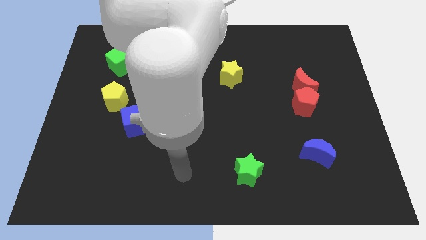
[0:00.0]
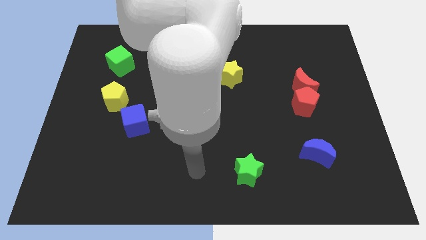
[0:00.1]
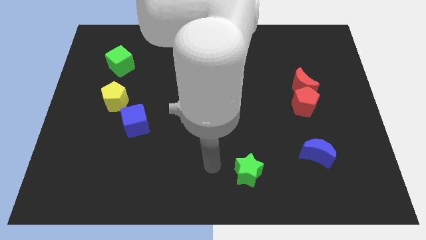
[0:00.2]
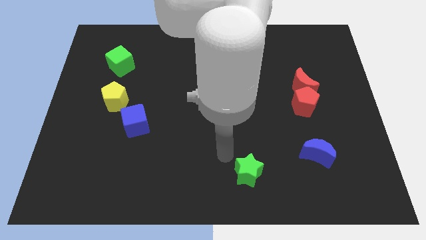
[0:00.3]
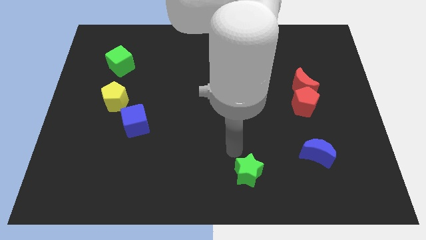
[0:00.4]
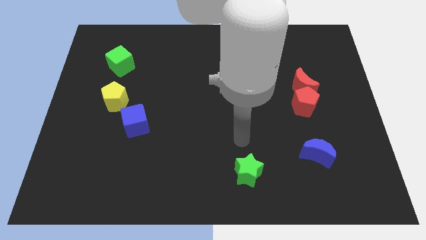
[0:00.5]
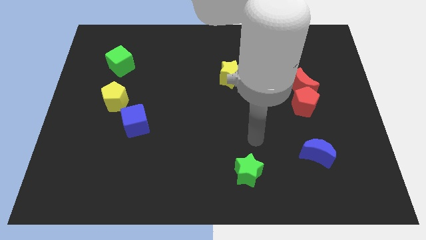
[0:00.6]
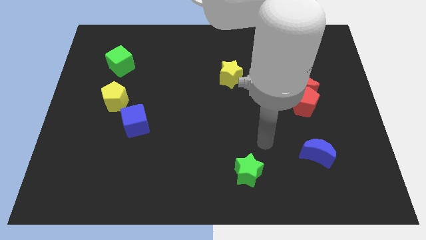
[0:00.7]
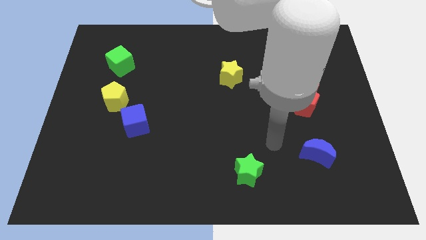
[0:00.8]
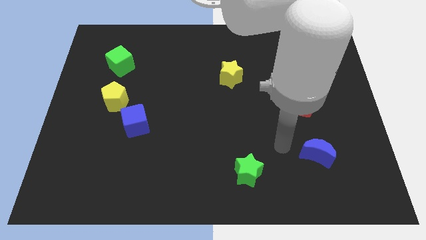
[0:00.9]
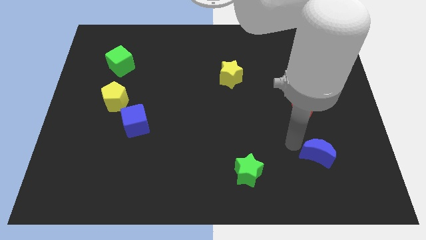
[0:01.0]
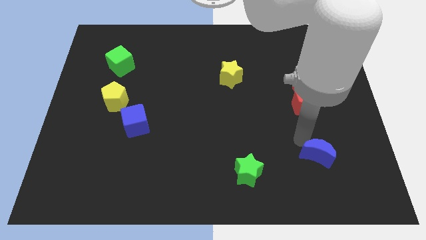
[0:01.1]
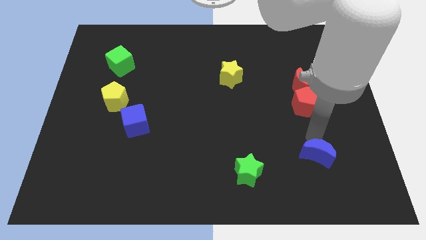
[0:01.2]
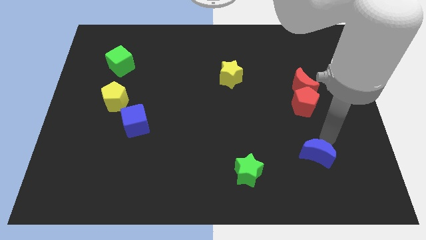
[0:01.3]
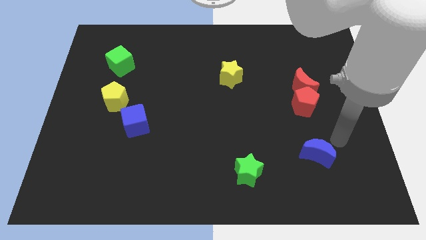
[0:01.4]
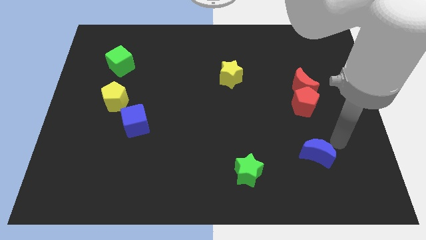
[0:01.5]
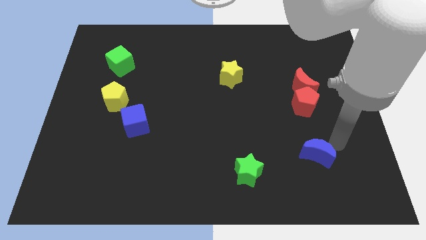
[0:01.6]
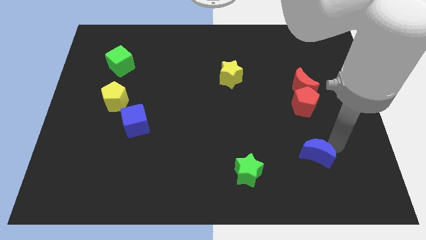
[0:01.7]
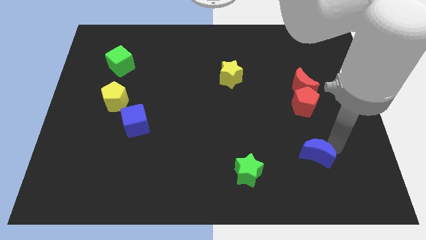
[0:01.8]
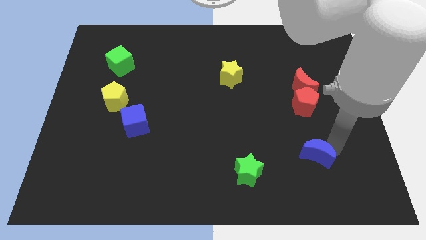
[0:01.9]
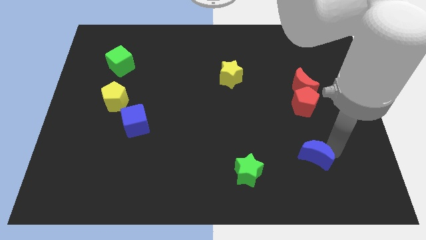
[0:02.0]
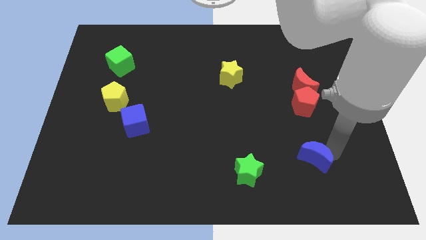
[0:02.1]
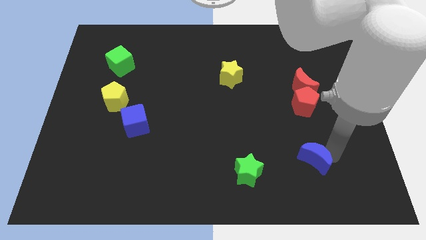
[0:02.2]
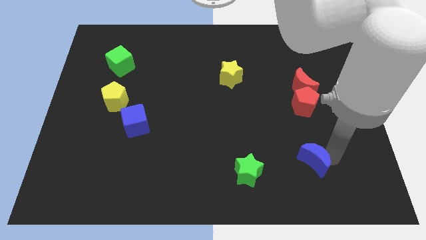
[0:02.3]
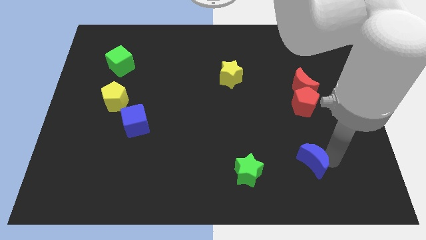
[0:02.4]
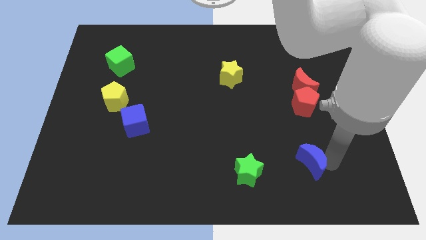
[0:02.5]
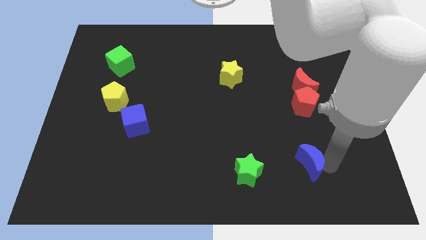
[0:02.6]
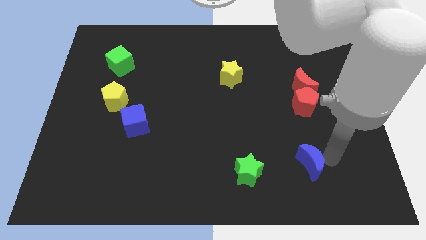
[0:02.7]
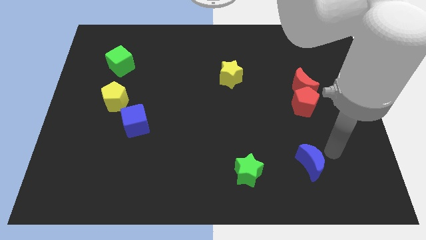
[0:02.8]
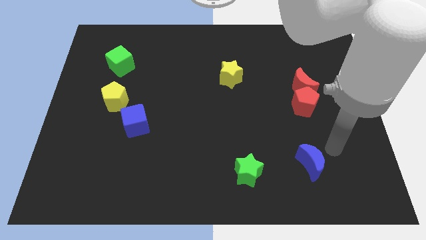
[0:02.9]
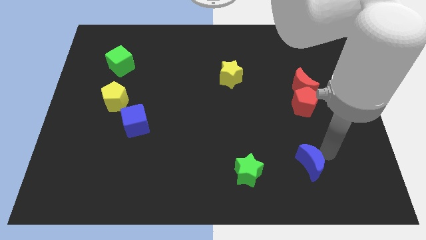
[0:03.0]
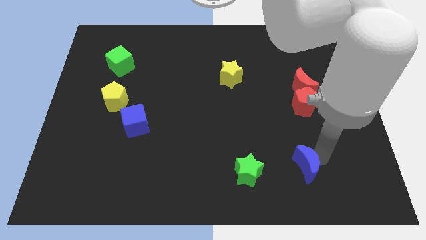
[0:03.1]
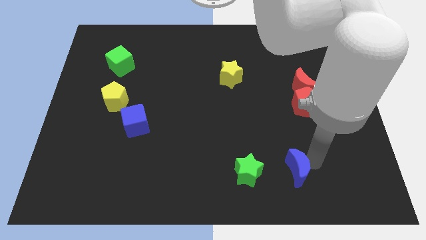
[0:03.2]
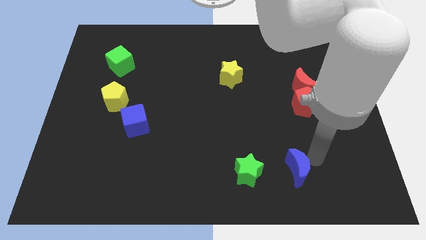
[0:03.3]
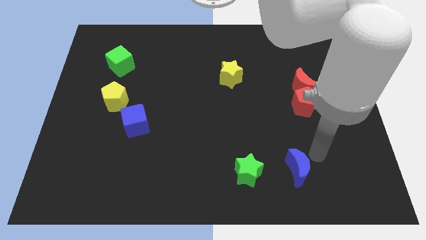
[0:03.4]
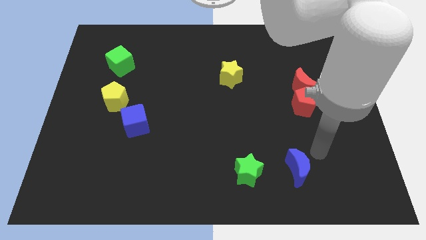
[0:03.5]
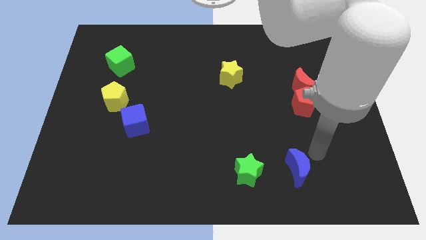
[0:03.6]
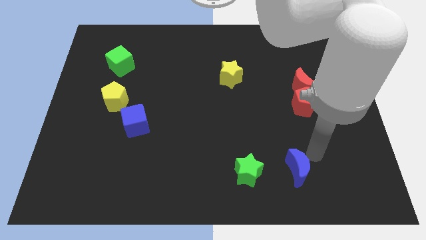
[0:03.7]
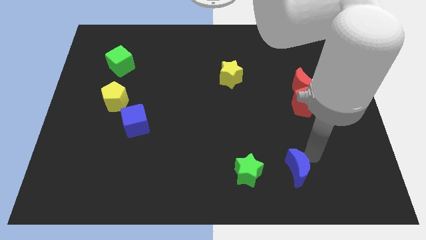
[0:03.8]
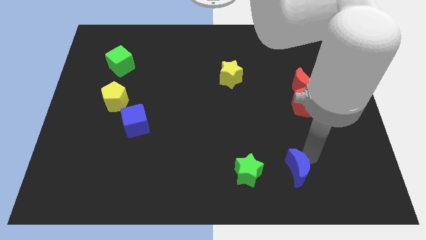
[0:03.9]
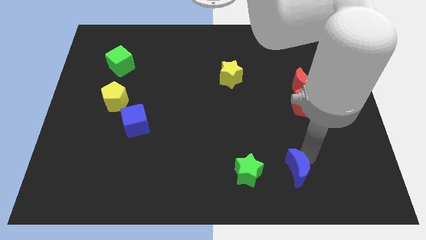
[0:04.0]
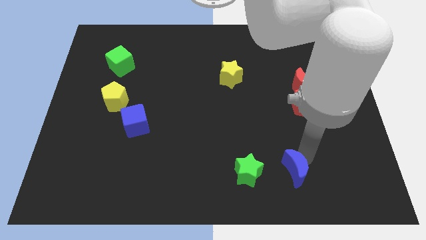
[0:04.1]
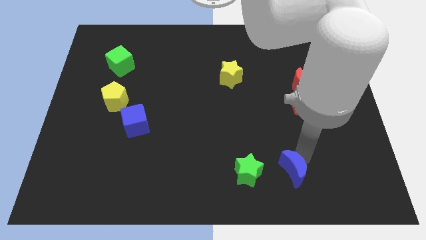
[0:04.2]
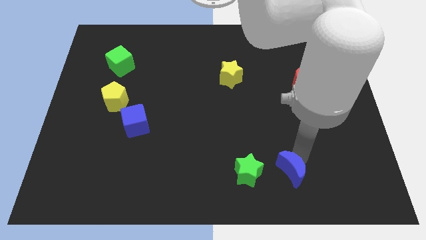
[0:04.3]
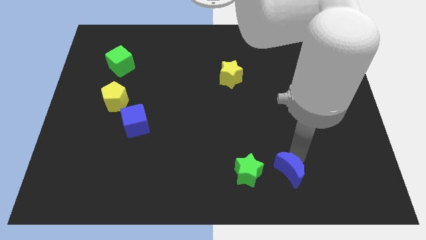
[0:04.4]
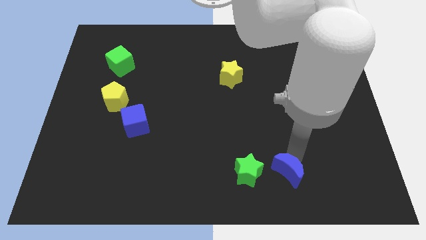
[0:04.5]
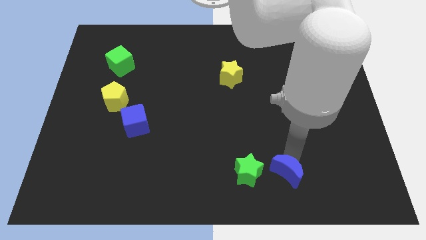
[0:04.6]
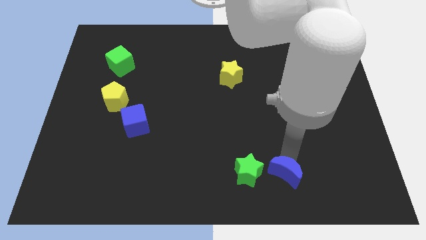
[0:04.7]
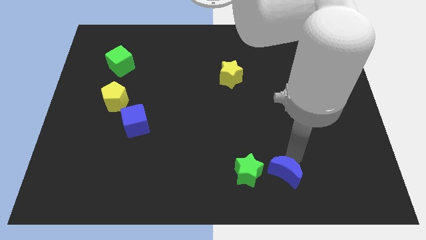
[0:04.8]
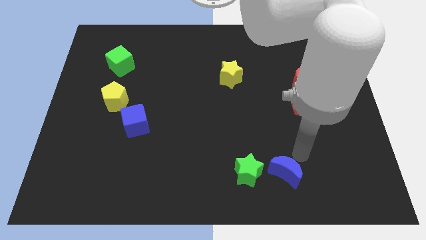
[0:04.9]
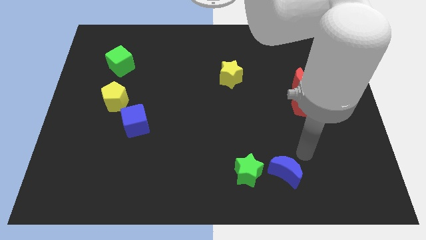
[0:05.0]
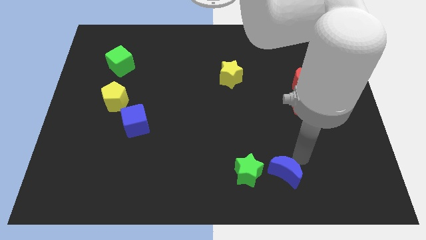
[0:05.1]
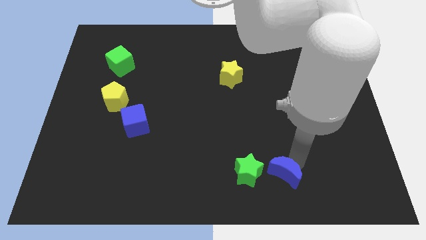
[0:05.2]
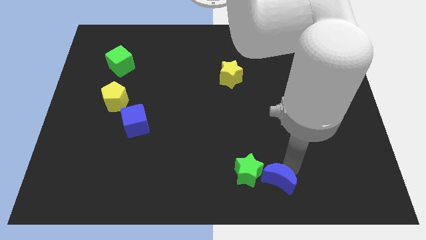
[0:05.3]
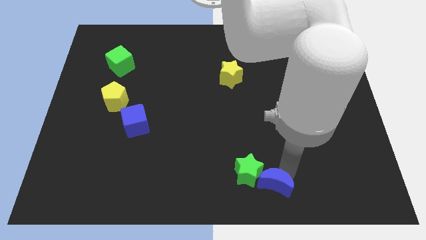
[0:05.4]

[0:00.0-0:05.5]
slide the blue moon to the bottom

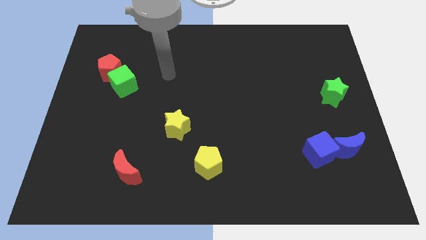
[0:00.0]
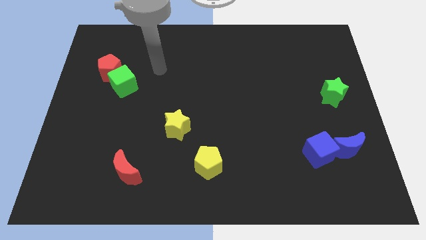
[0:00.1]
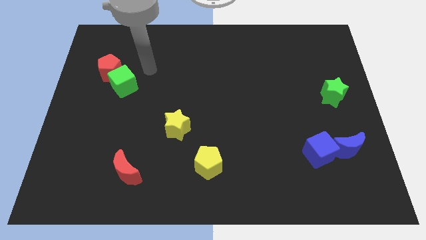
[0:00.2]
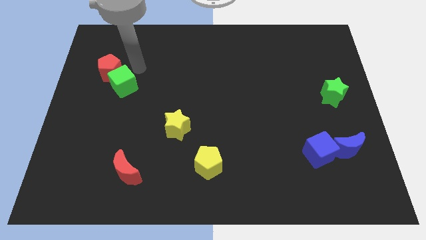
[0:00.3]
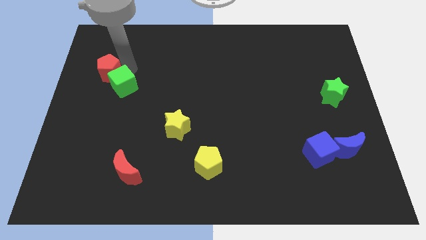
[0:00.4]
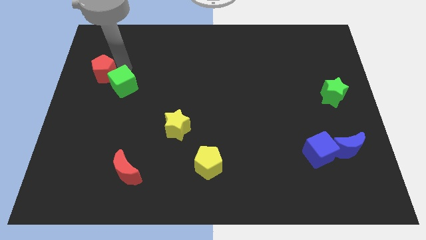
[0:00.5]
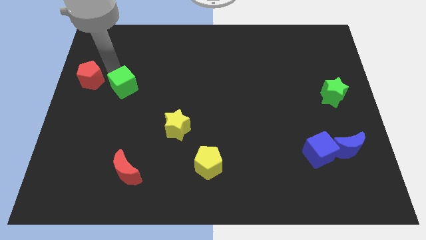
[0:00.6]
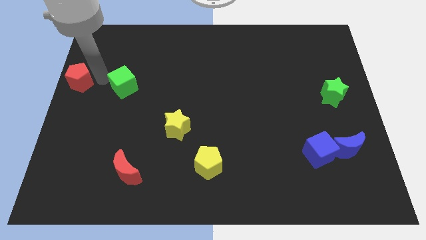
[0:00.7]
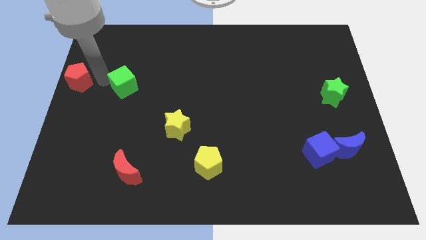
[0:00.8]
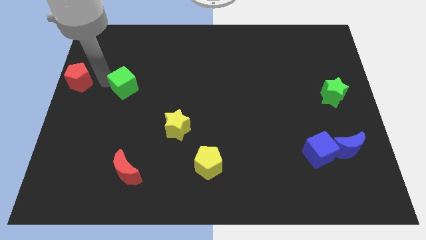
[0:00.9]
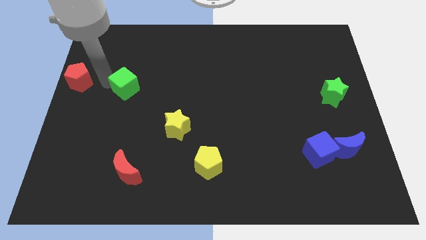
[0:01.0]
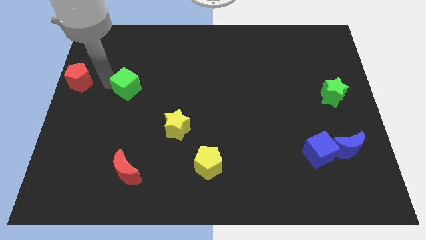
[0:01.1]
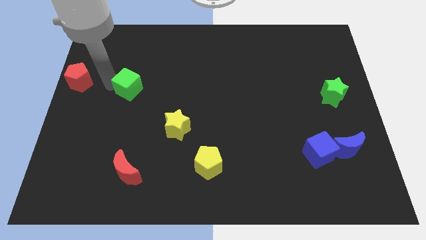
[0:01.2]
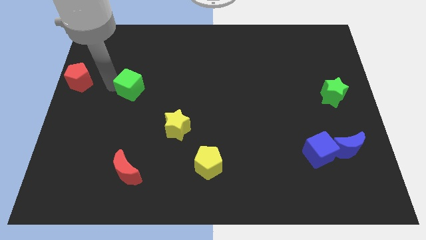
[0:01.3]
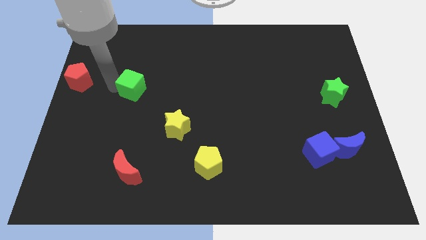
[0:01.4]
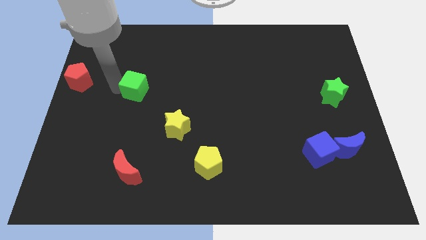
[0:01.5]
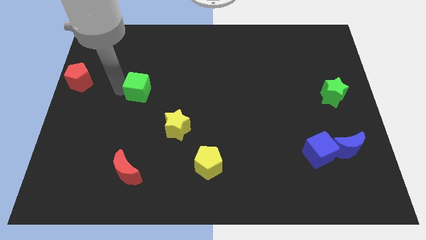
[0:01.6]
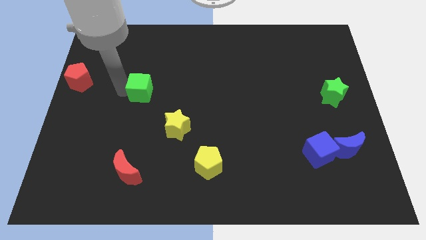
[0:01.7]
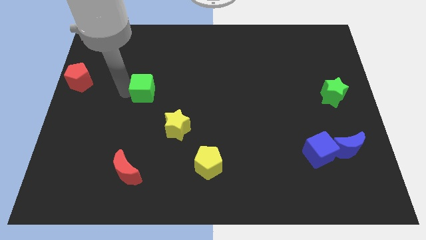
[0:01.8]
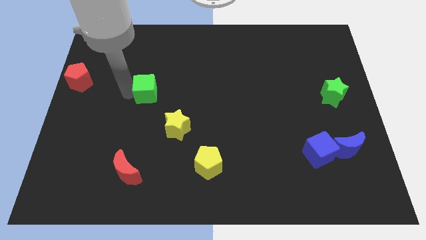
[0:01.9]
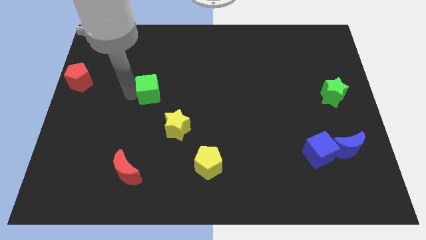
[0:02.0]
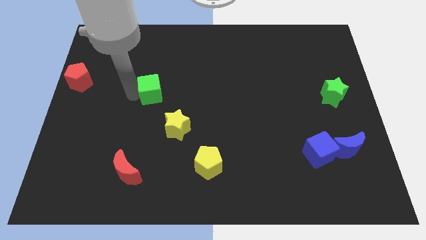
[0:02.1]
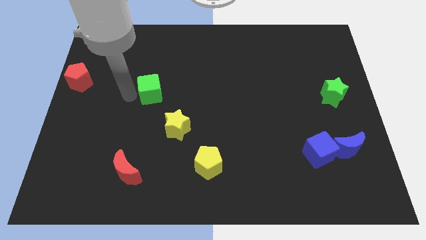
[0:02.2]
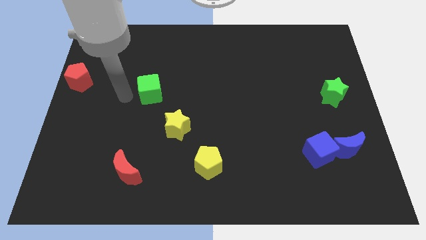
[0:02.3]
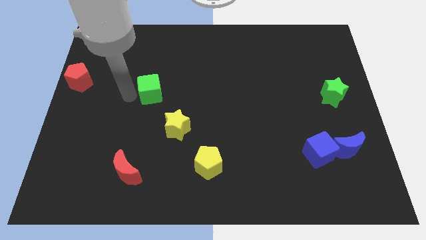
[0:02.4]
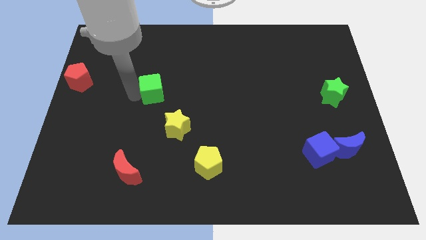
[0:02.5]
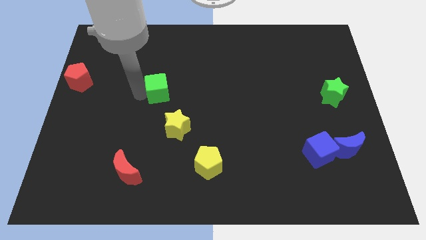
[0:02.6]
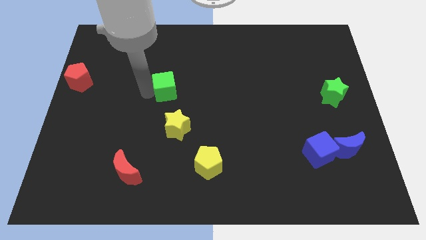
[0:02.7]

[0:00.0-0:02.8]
put the green cube to the middle of the board
